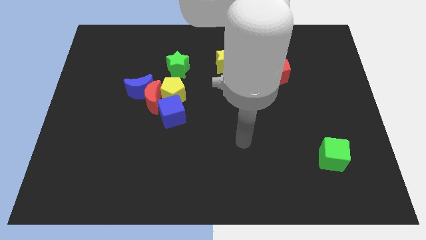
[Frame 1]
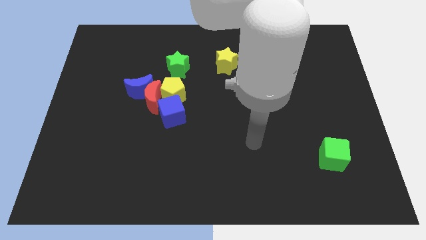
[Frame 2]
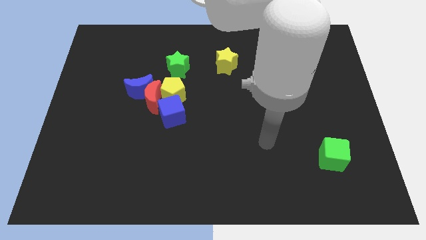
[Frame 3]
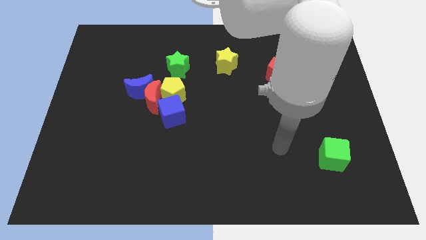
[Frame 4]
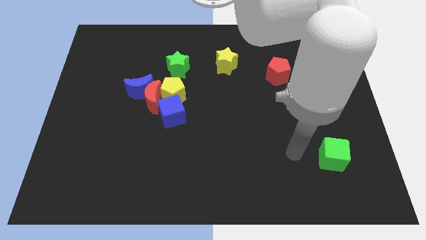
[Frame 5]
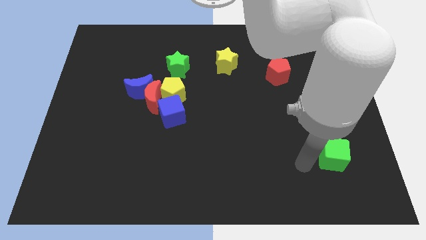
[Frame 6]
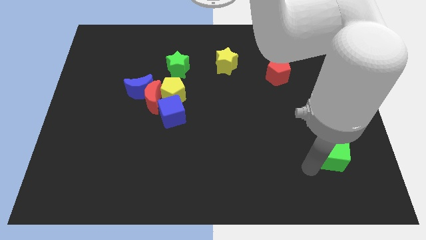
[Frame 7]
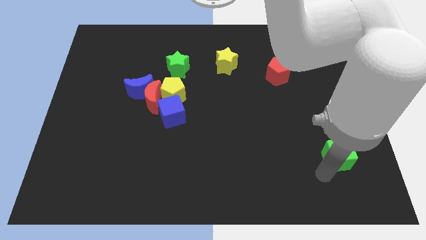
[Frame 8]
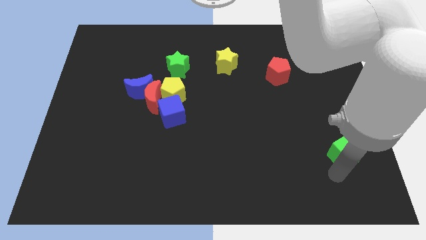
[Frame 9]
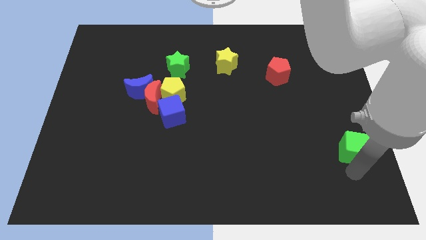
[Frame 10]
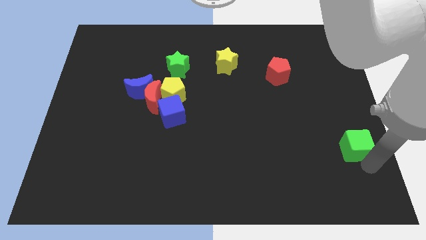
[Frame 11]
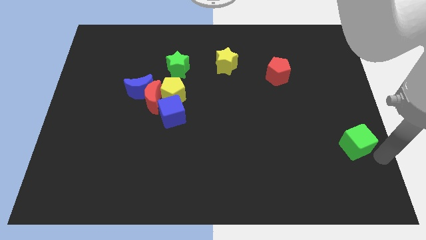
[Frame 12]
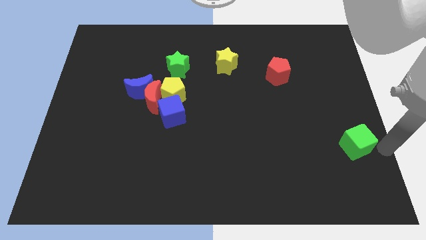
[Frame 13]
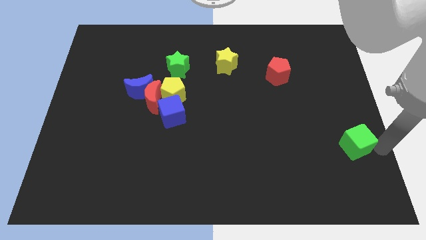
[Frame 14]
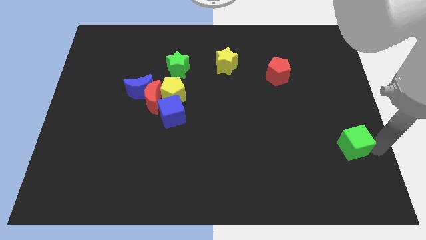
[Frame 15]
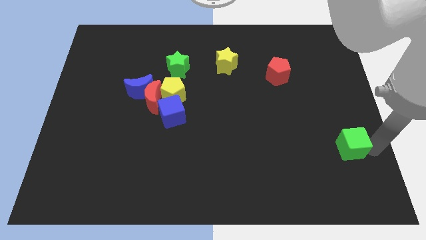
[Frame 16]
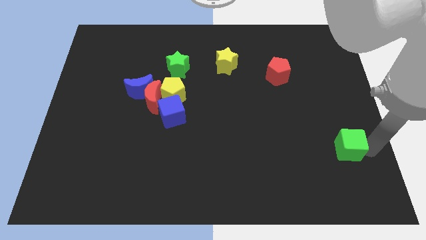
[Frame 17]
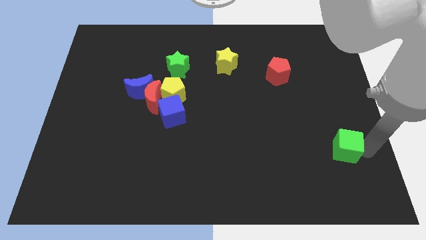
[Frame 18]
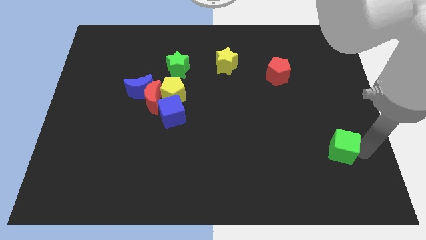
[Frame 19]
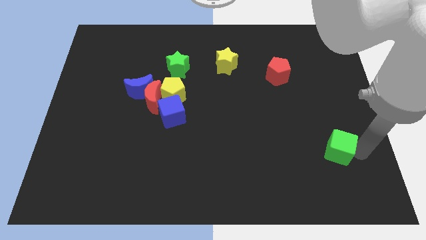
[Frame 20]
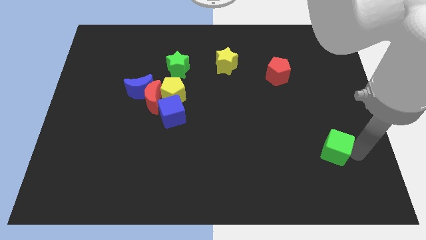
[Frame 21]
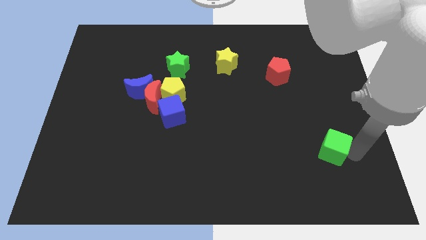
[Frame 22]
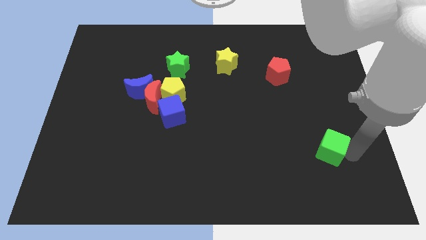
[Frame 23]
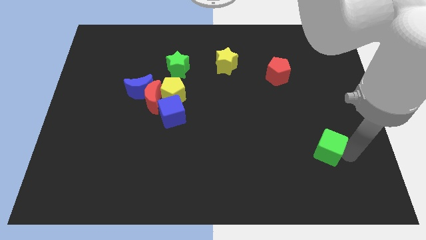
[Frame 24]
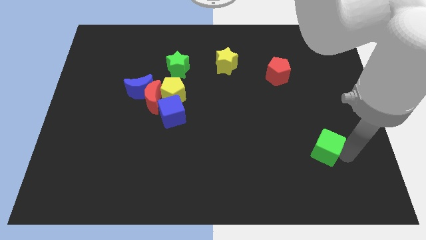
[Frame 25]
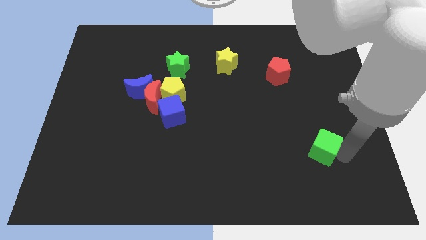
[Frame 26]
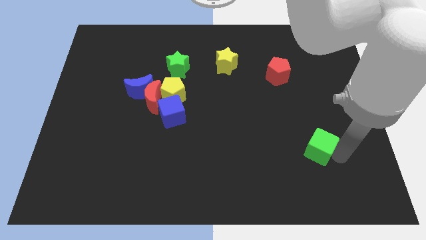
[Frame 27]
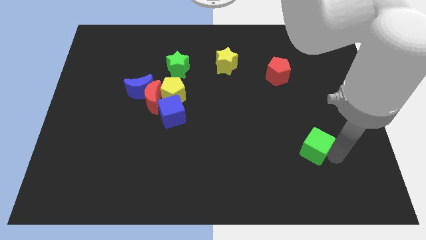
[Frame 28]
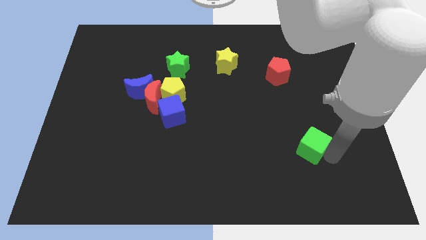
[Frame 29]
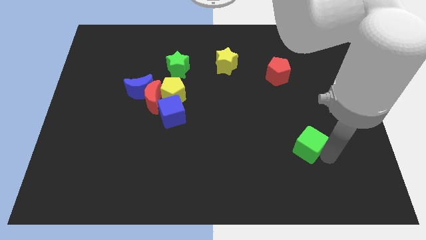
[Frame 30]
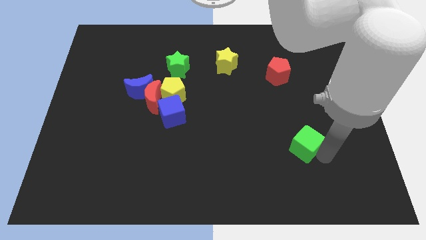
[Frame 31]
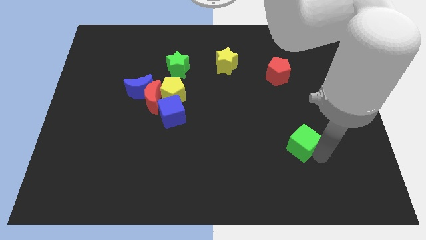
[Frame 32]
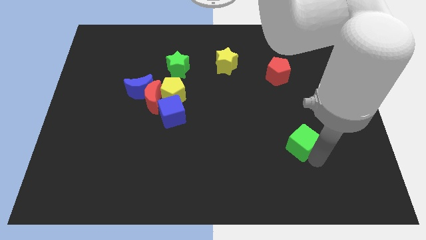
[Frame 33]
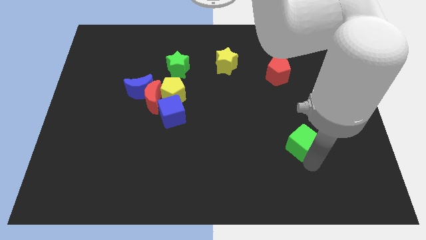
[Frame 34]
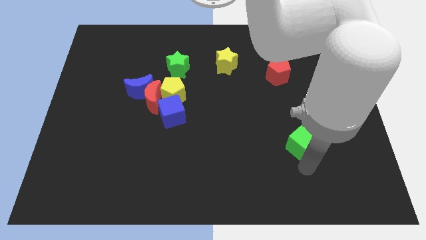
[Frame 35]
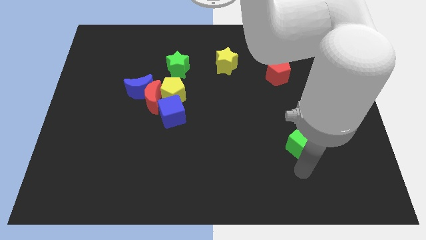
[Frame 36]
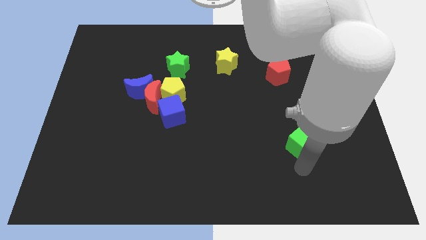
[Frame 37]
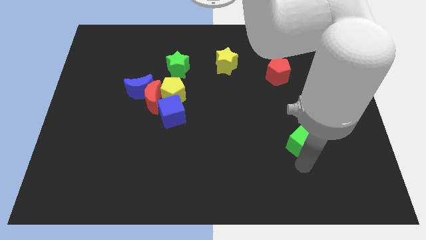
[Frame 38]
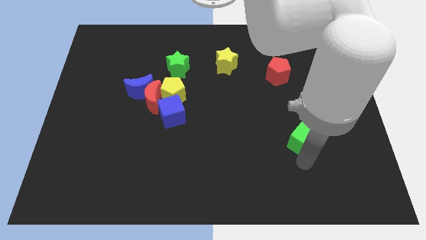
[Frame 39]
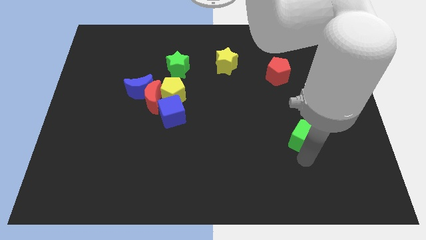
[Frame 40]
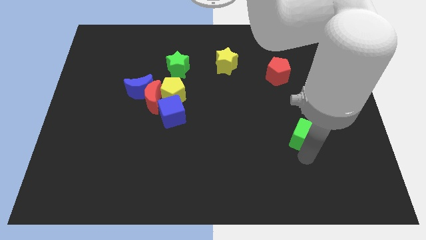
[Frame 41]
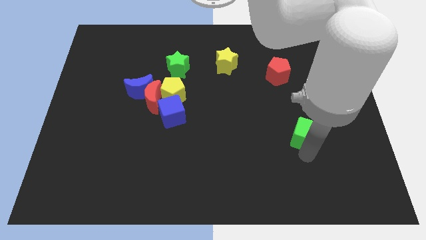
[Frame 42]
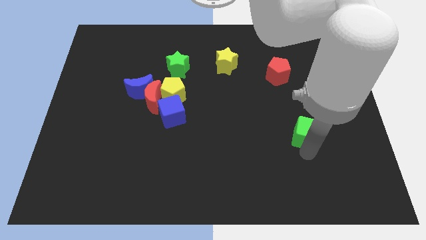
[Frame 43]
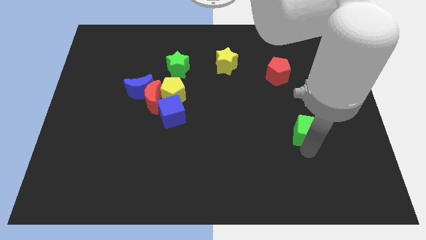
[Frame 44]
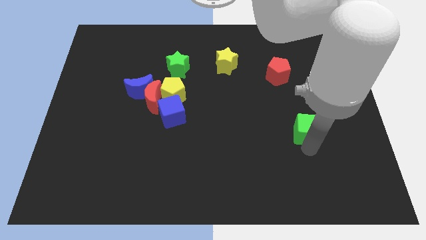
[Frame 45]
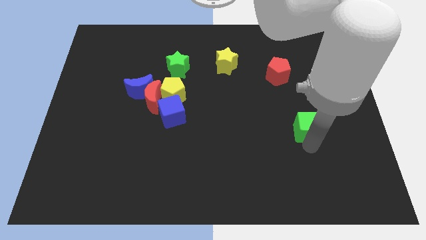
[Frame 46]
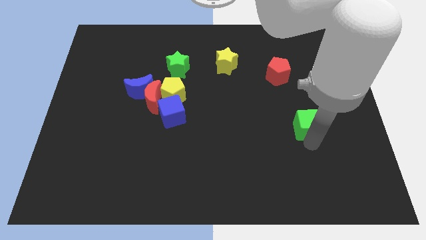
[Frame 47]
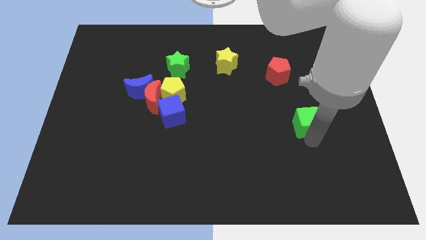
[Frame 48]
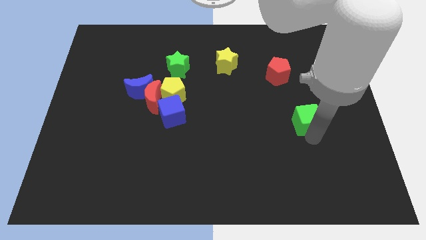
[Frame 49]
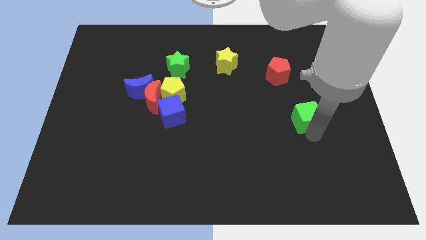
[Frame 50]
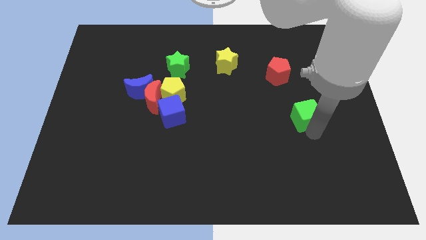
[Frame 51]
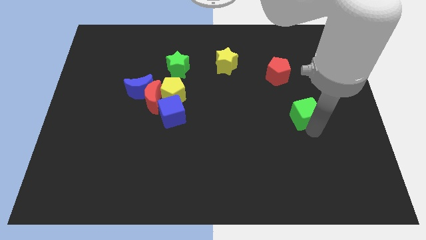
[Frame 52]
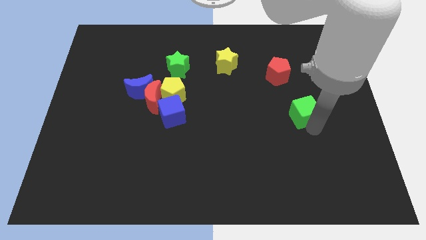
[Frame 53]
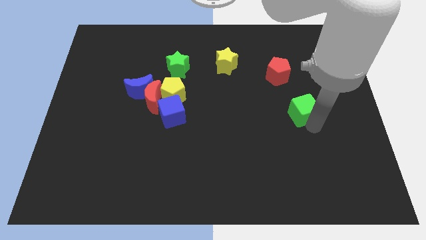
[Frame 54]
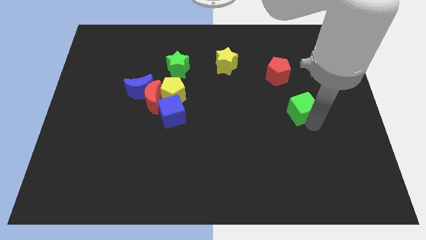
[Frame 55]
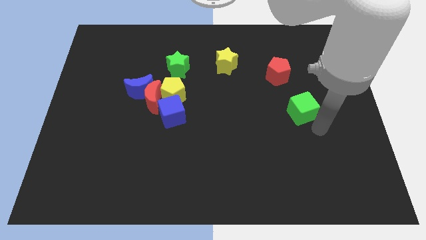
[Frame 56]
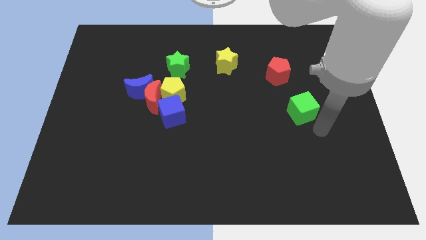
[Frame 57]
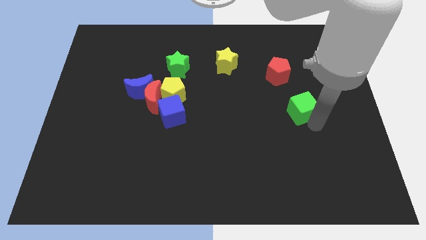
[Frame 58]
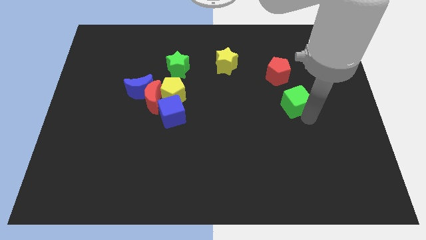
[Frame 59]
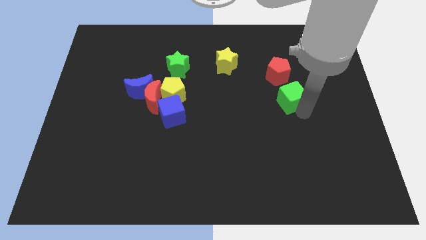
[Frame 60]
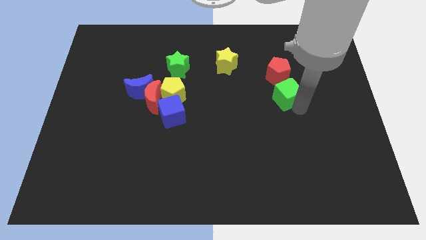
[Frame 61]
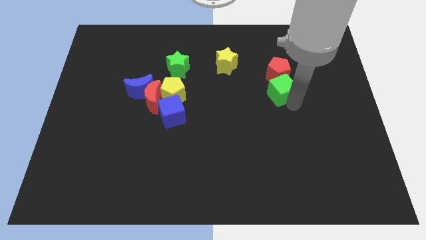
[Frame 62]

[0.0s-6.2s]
move the green cube next to the red pentagon
